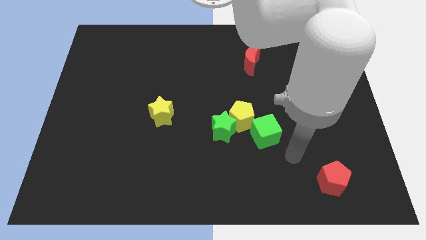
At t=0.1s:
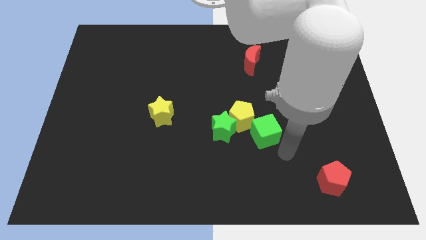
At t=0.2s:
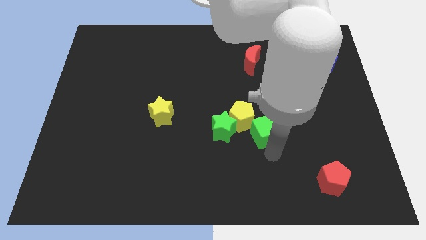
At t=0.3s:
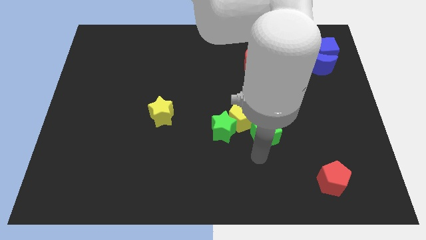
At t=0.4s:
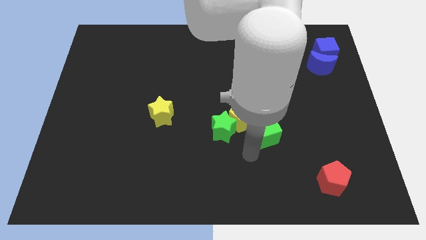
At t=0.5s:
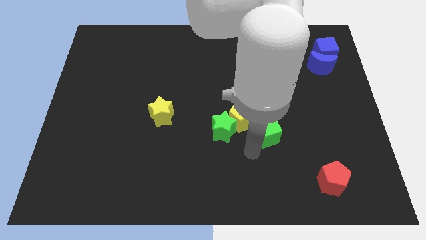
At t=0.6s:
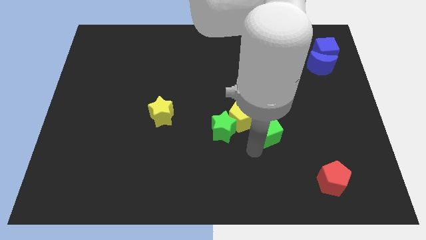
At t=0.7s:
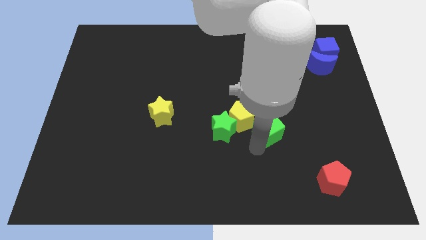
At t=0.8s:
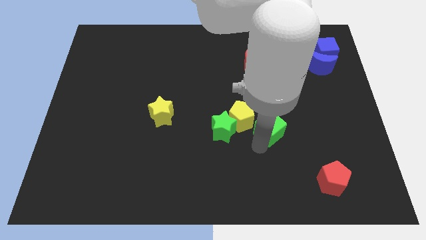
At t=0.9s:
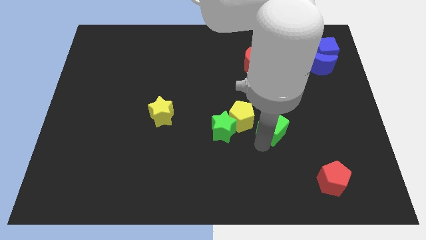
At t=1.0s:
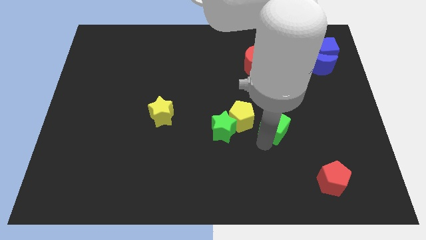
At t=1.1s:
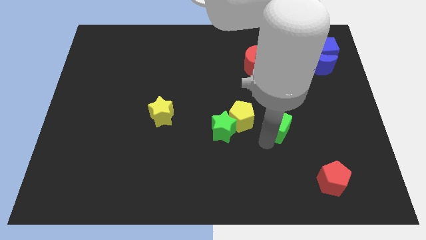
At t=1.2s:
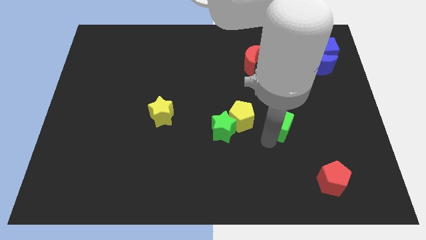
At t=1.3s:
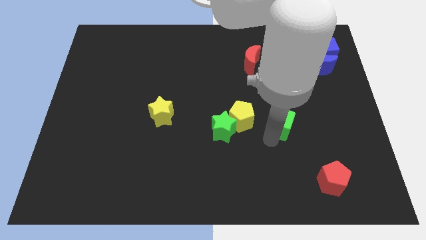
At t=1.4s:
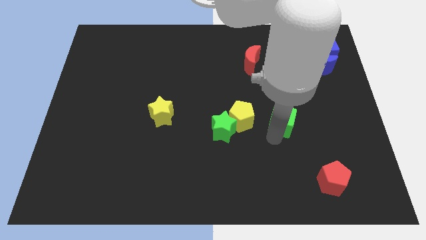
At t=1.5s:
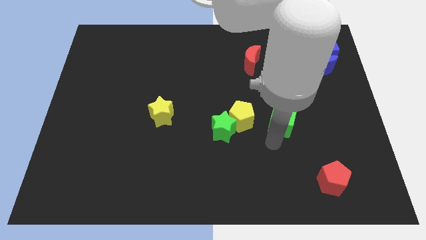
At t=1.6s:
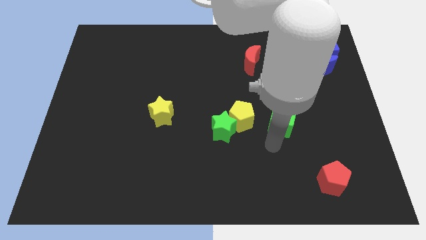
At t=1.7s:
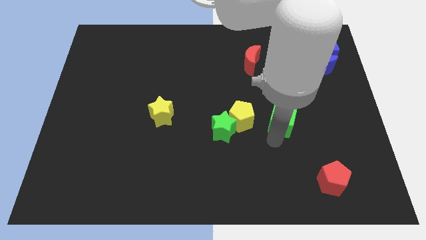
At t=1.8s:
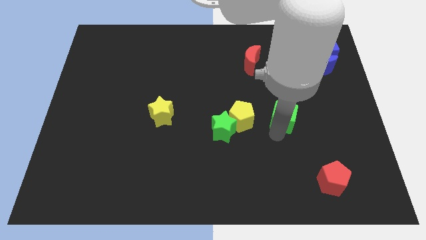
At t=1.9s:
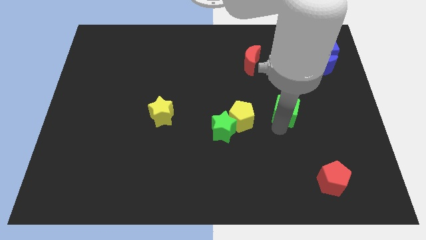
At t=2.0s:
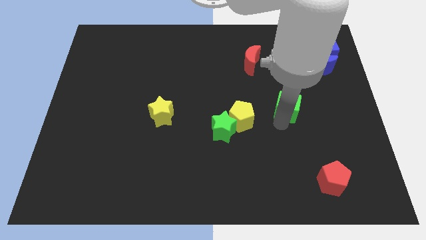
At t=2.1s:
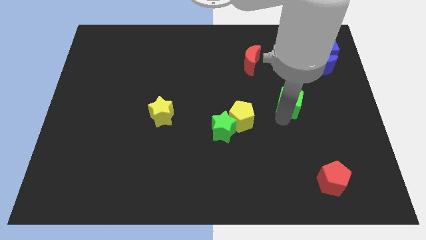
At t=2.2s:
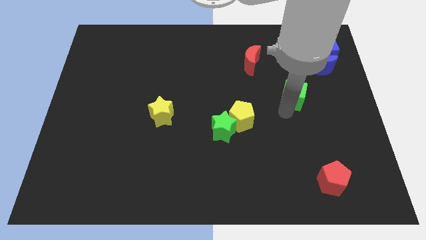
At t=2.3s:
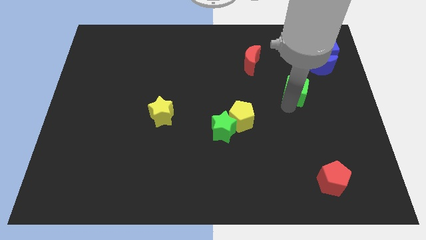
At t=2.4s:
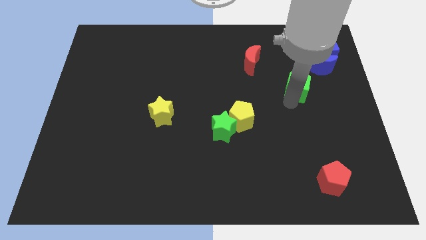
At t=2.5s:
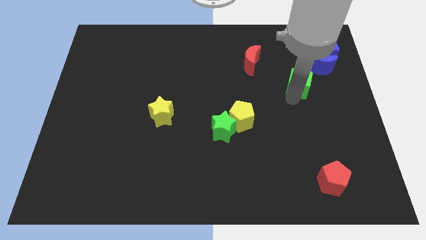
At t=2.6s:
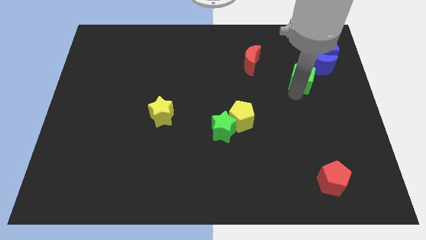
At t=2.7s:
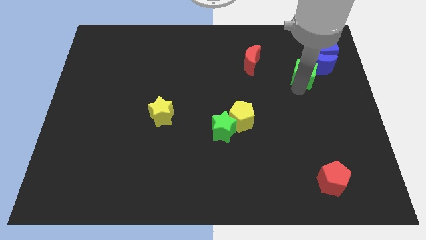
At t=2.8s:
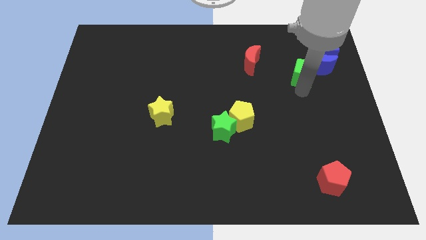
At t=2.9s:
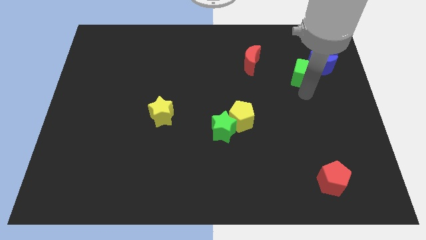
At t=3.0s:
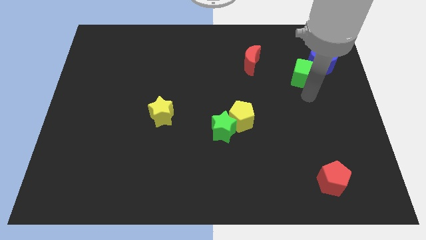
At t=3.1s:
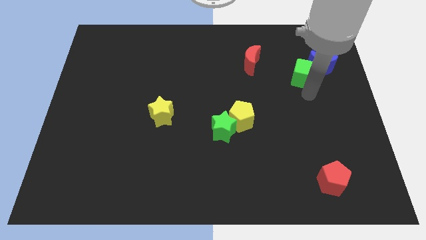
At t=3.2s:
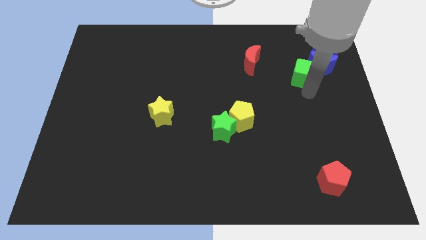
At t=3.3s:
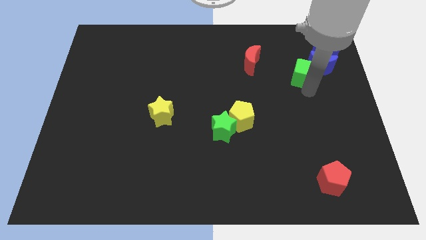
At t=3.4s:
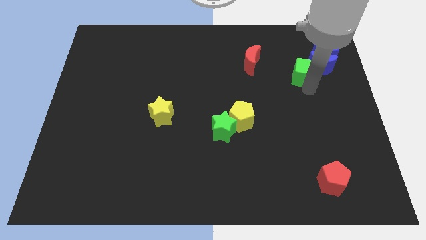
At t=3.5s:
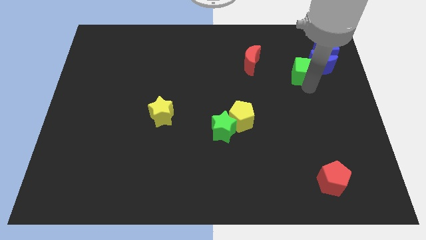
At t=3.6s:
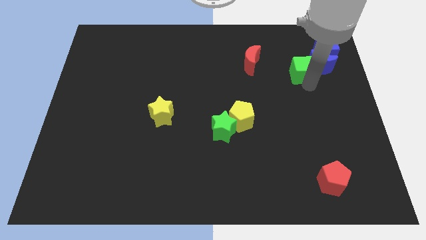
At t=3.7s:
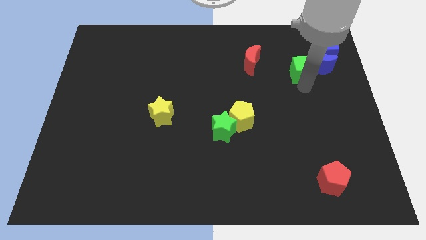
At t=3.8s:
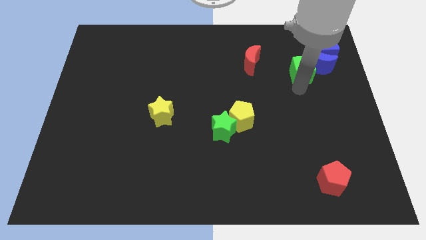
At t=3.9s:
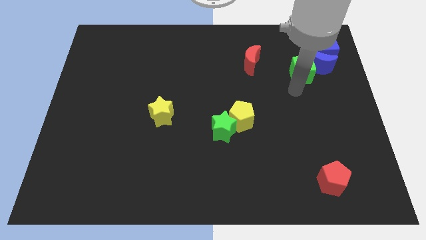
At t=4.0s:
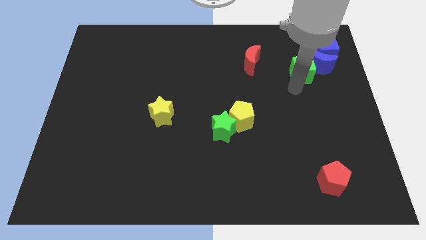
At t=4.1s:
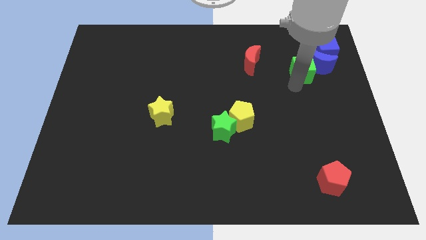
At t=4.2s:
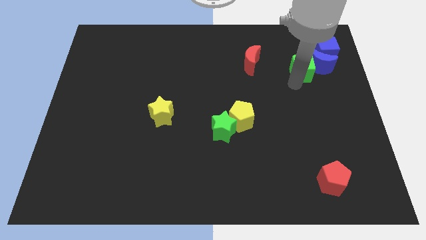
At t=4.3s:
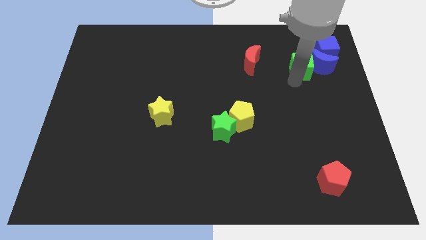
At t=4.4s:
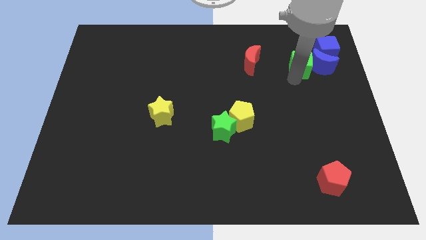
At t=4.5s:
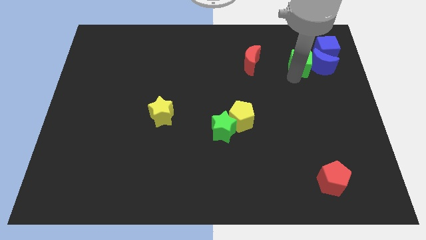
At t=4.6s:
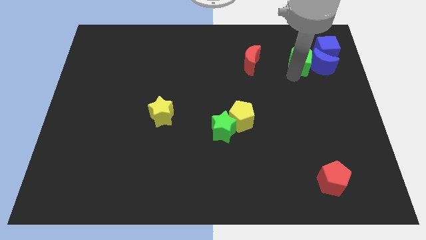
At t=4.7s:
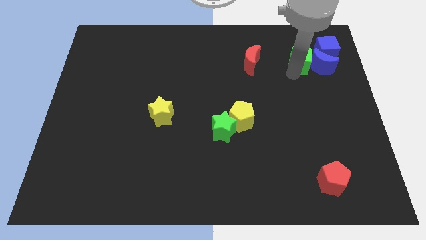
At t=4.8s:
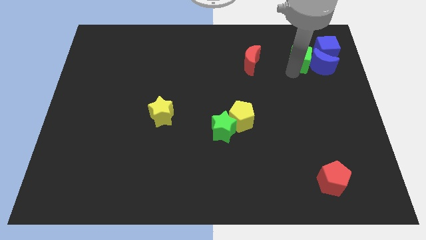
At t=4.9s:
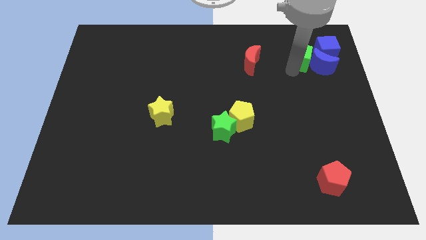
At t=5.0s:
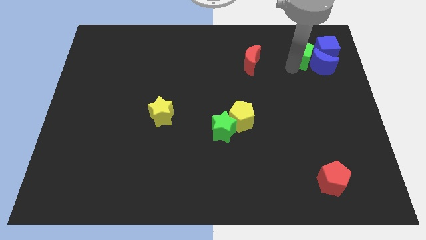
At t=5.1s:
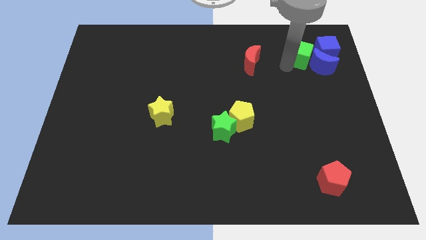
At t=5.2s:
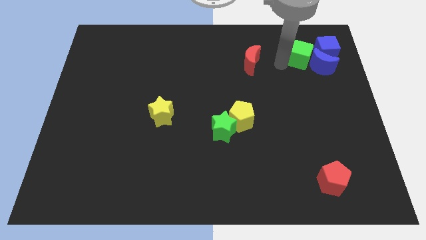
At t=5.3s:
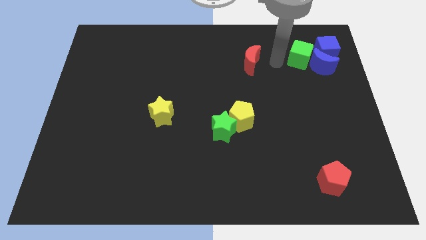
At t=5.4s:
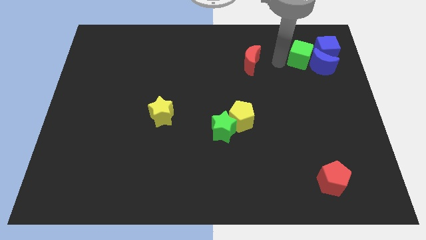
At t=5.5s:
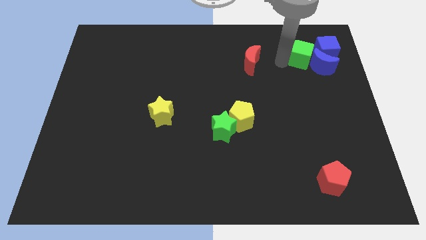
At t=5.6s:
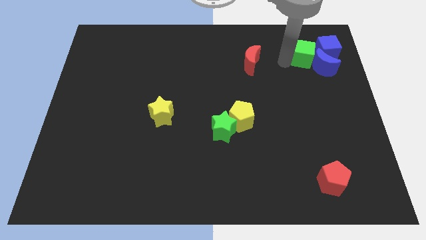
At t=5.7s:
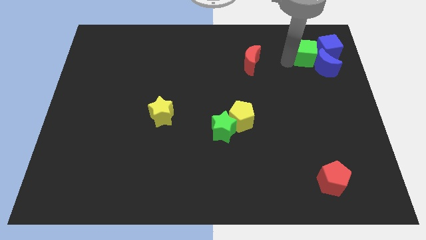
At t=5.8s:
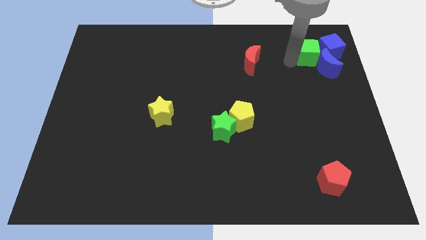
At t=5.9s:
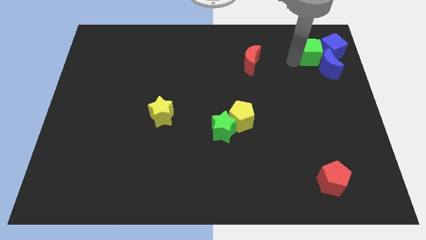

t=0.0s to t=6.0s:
slide the green cube towards the blue cube

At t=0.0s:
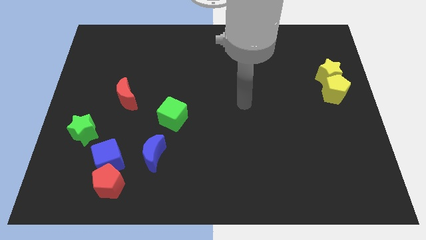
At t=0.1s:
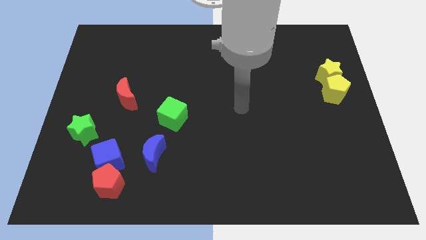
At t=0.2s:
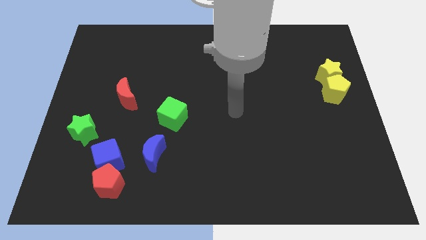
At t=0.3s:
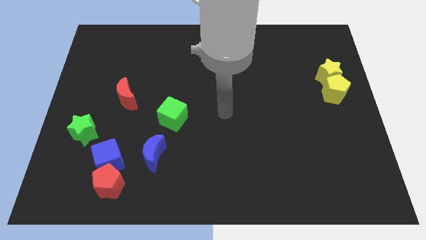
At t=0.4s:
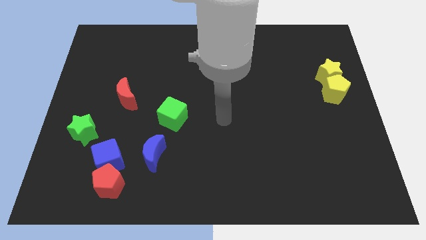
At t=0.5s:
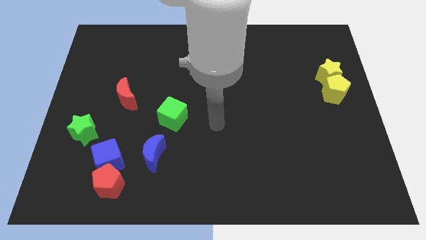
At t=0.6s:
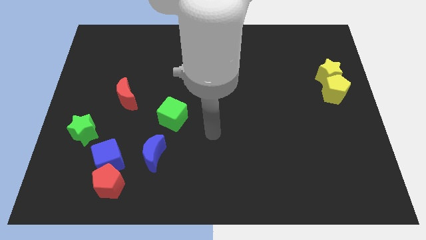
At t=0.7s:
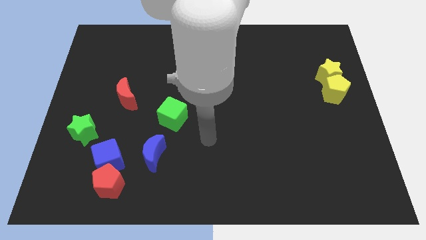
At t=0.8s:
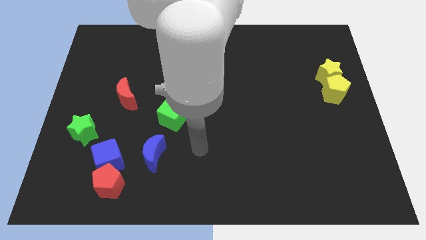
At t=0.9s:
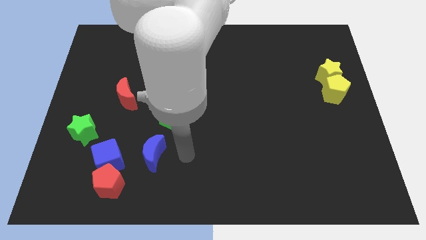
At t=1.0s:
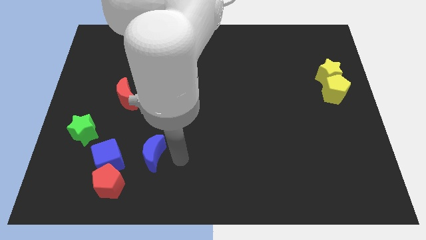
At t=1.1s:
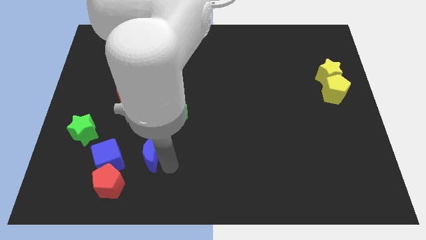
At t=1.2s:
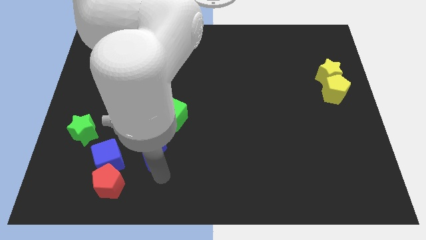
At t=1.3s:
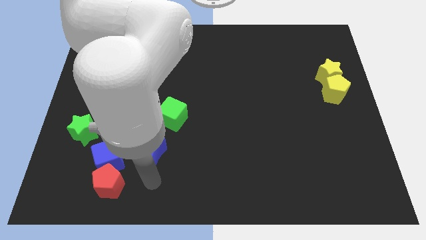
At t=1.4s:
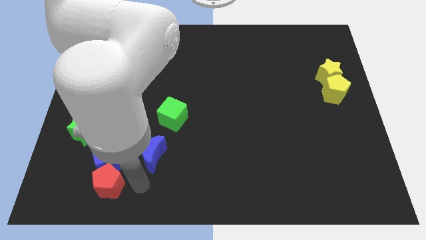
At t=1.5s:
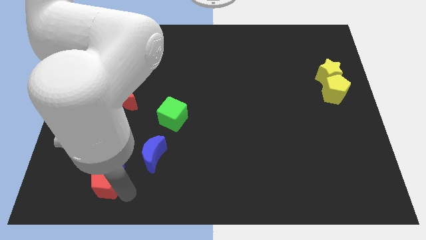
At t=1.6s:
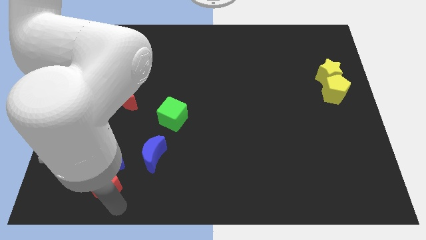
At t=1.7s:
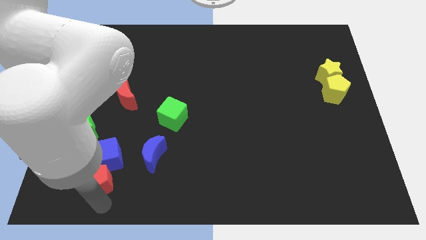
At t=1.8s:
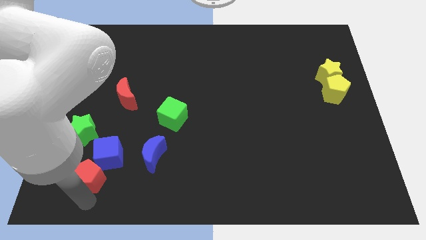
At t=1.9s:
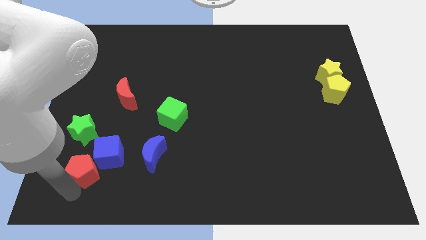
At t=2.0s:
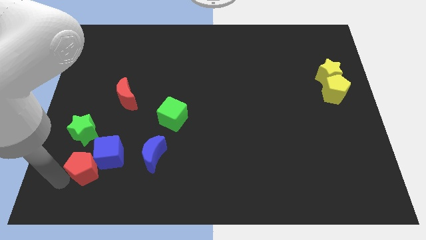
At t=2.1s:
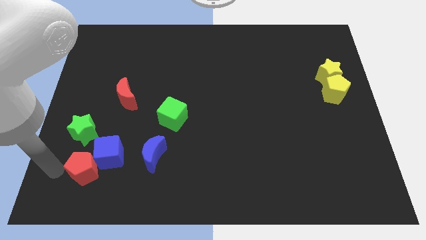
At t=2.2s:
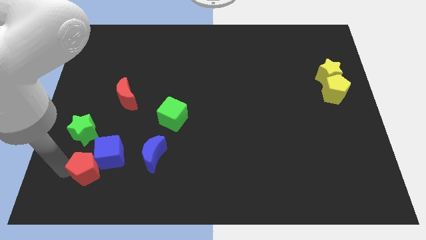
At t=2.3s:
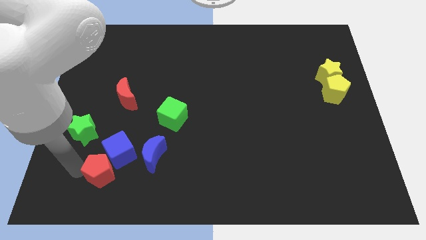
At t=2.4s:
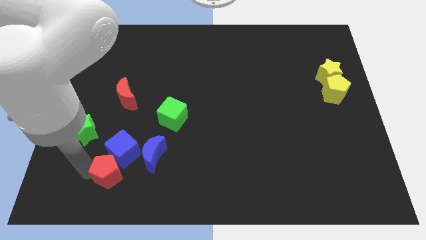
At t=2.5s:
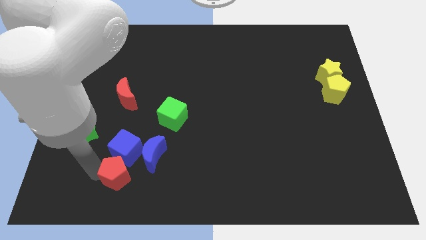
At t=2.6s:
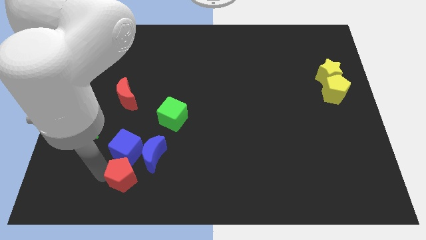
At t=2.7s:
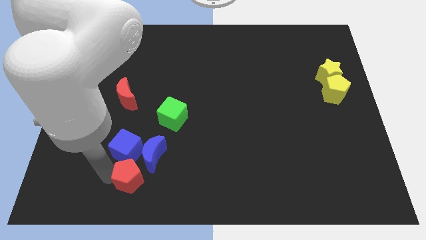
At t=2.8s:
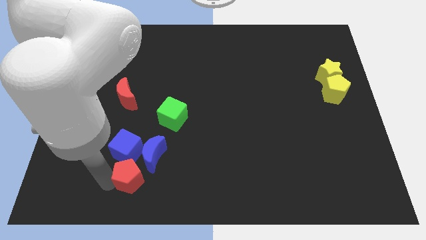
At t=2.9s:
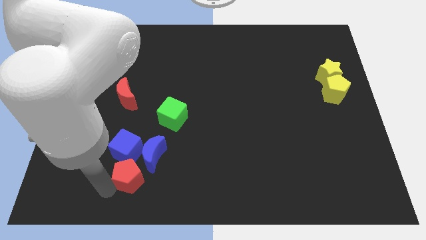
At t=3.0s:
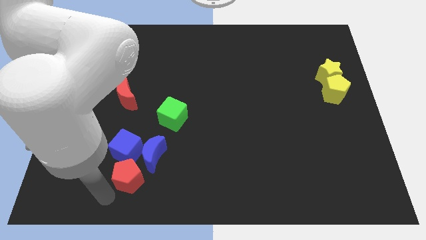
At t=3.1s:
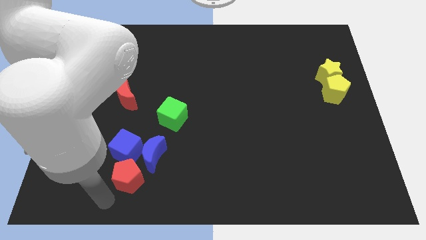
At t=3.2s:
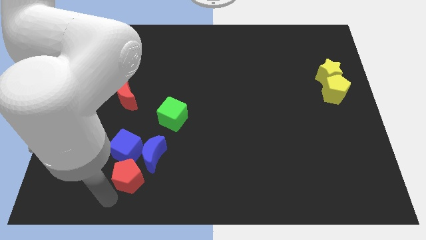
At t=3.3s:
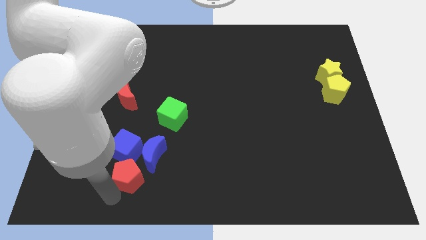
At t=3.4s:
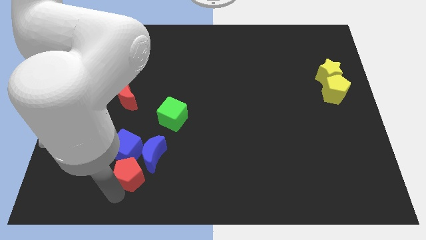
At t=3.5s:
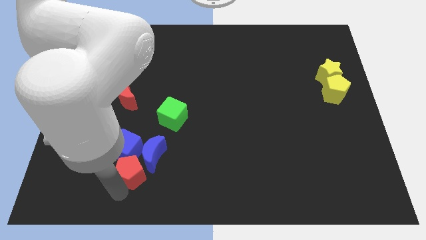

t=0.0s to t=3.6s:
push the red pentagon towards the blue moon
